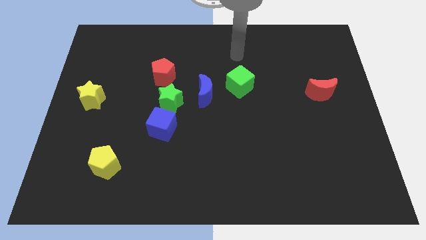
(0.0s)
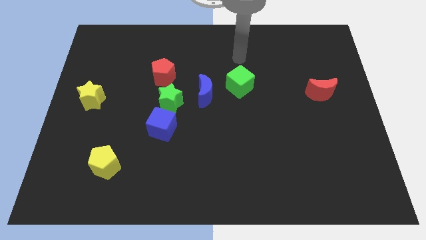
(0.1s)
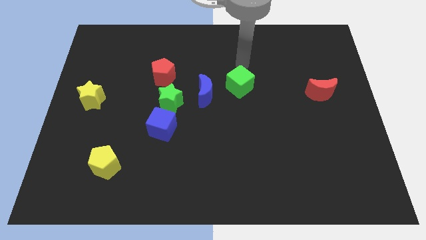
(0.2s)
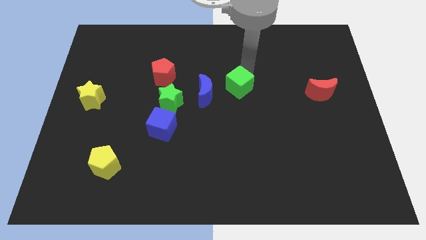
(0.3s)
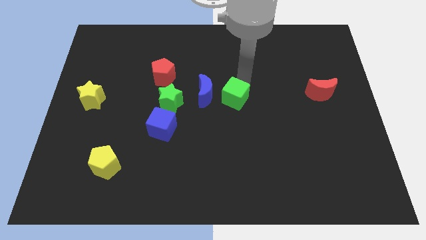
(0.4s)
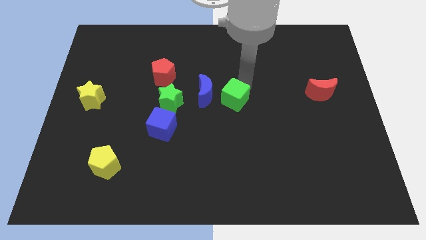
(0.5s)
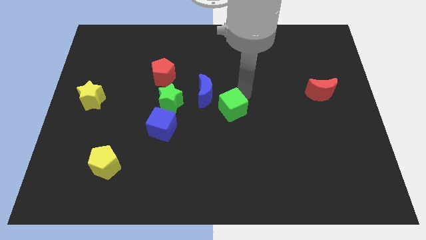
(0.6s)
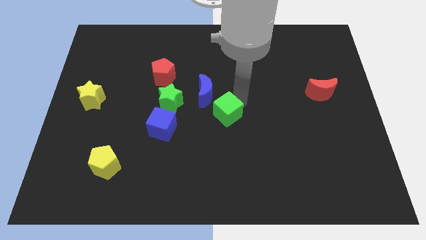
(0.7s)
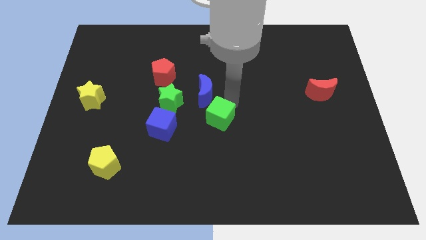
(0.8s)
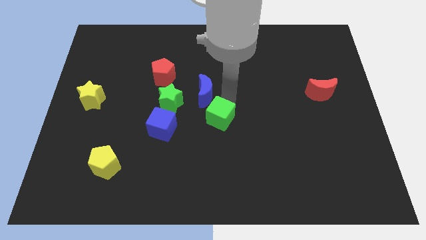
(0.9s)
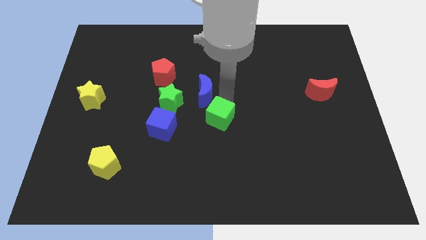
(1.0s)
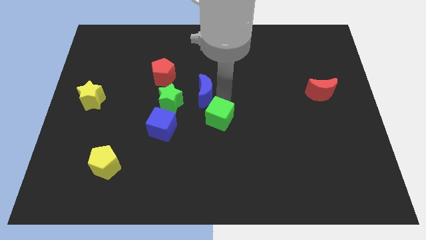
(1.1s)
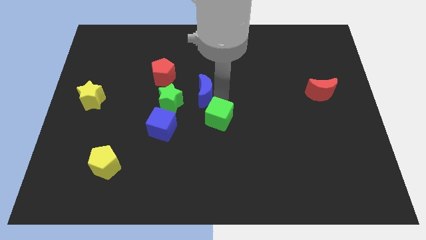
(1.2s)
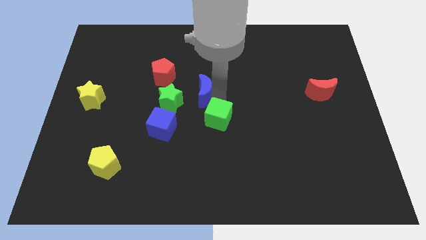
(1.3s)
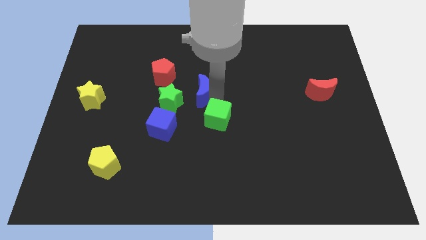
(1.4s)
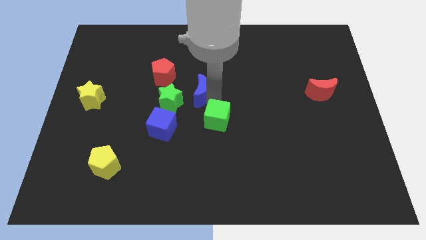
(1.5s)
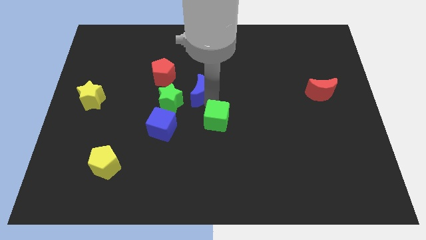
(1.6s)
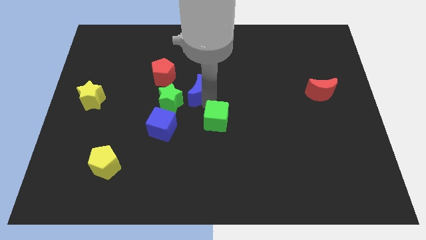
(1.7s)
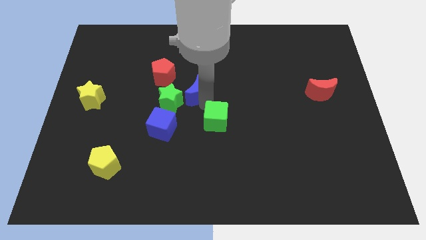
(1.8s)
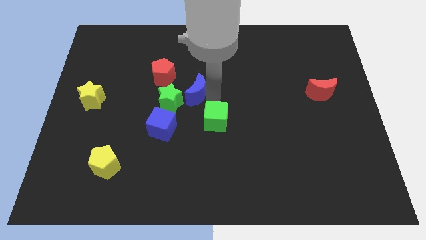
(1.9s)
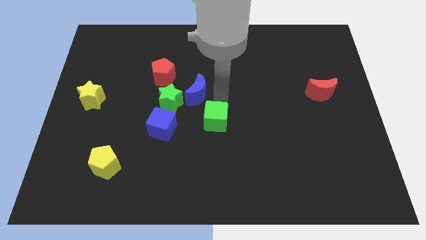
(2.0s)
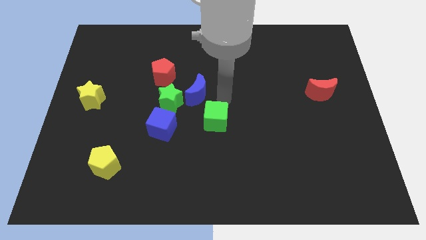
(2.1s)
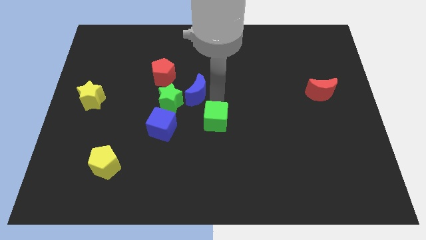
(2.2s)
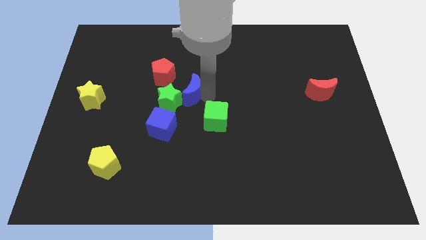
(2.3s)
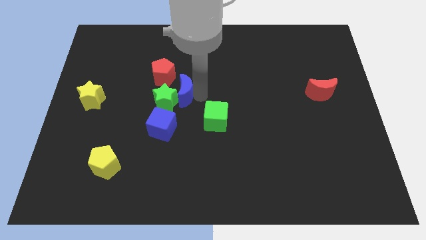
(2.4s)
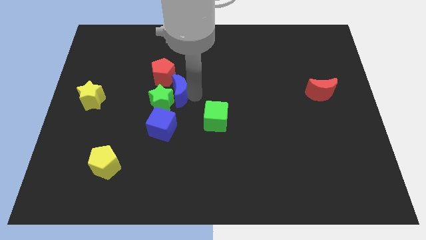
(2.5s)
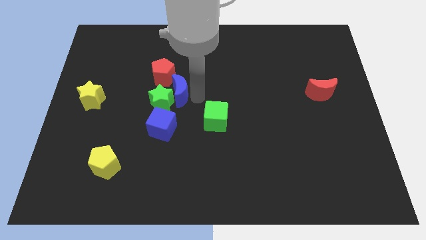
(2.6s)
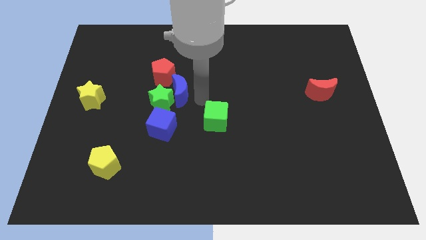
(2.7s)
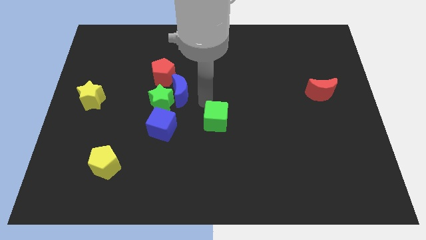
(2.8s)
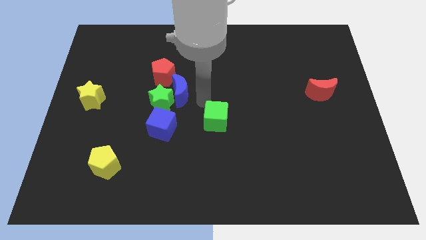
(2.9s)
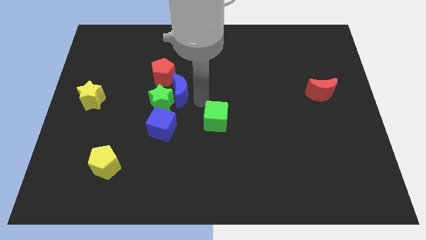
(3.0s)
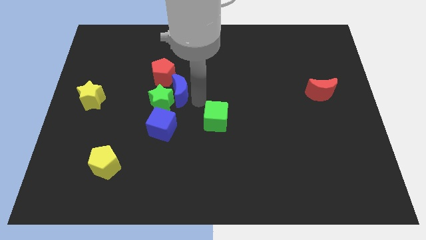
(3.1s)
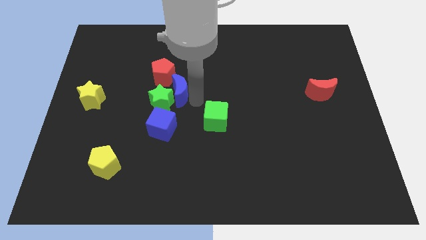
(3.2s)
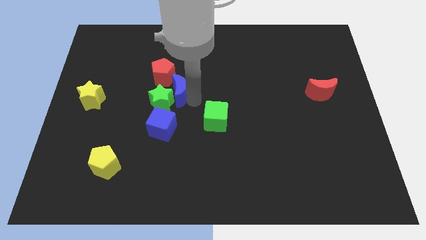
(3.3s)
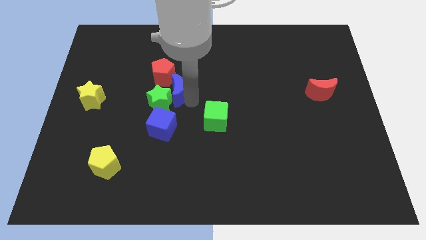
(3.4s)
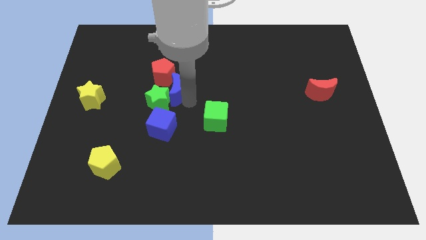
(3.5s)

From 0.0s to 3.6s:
slightly move the blue moon left

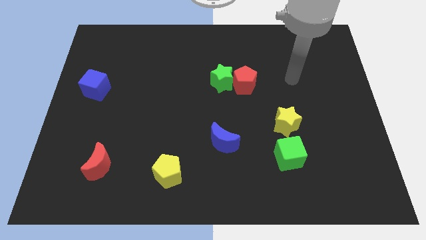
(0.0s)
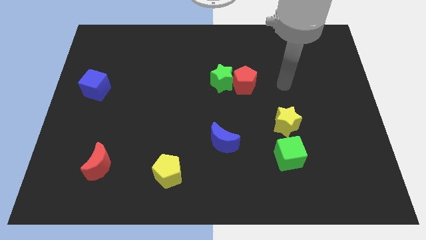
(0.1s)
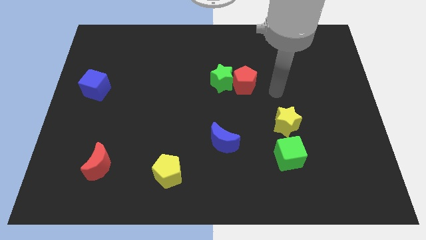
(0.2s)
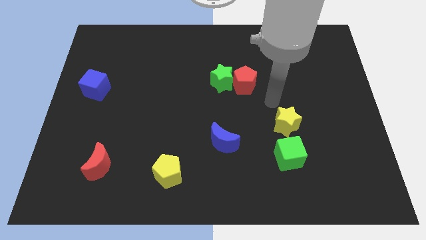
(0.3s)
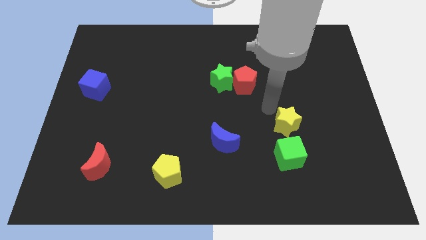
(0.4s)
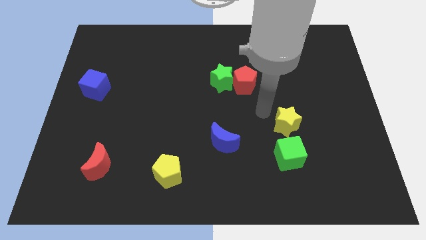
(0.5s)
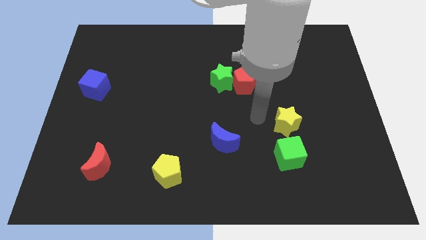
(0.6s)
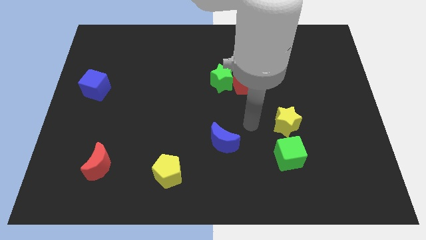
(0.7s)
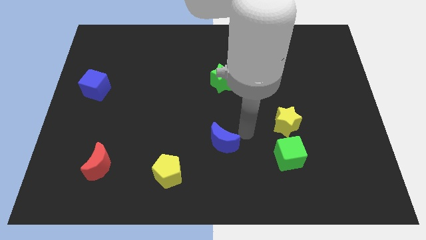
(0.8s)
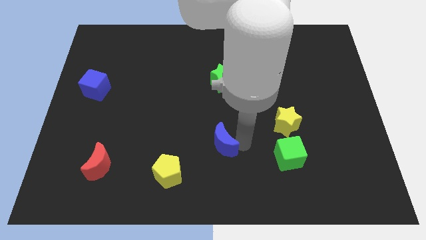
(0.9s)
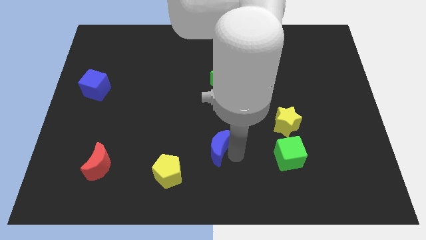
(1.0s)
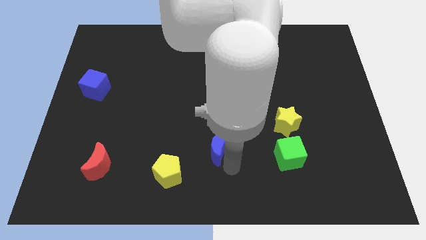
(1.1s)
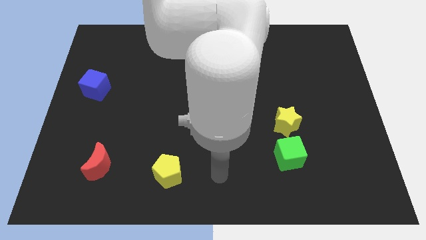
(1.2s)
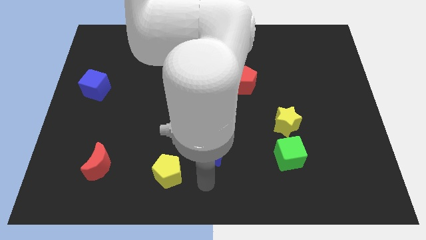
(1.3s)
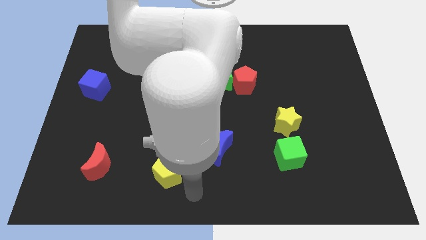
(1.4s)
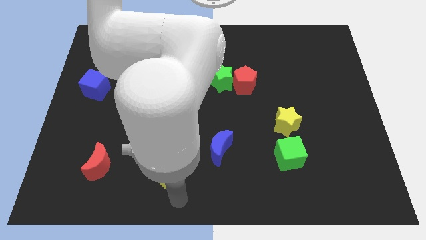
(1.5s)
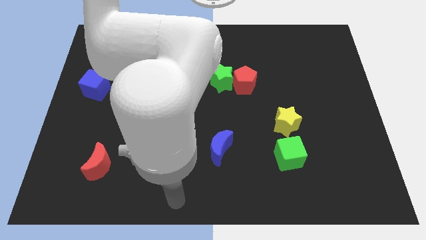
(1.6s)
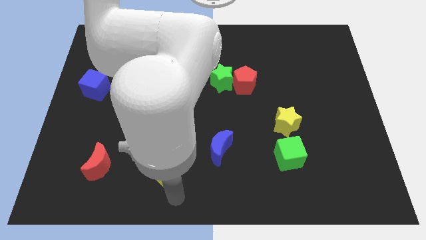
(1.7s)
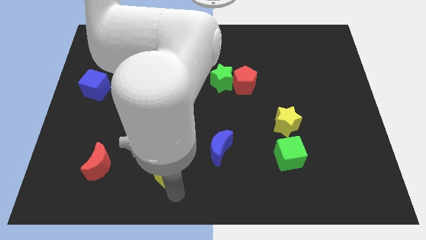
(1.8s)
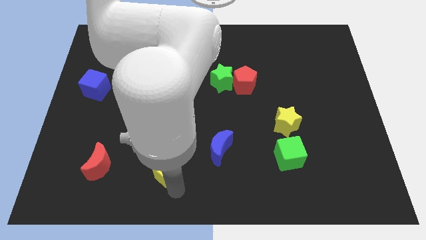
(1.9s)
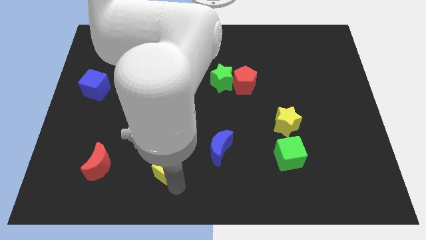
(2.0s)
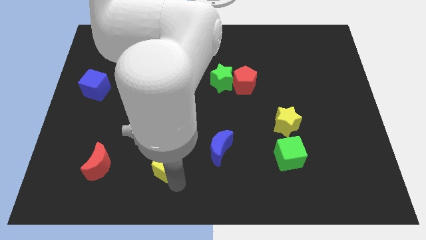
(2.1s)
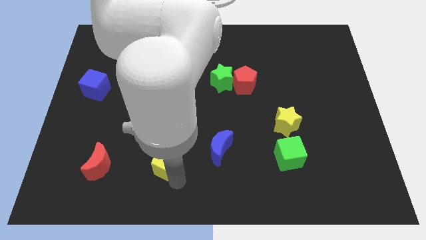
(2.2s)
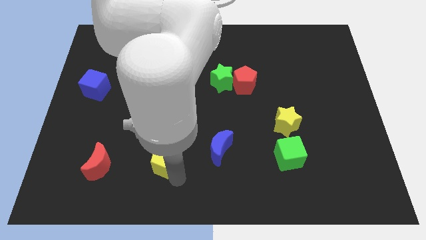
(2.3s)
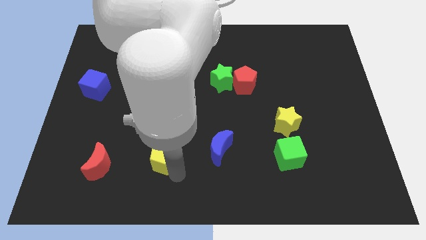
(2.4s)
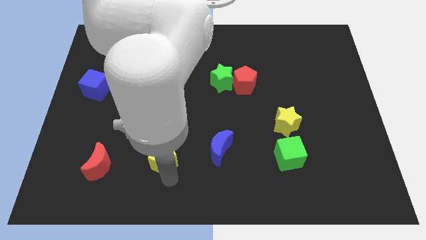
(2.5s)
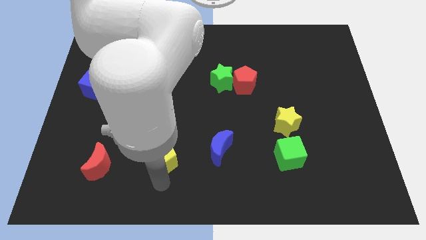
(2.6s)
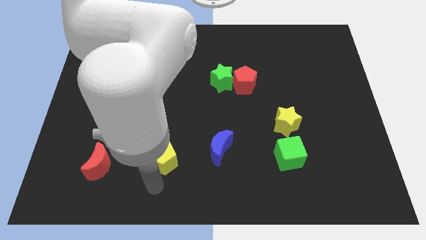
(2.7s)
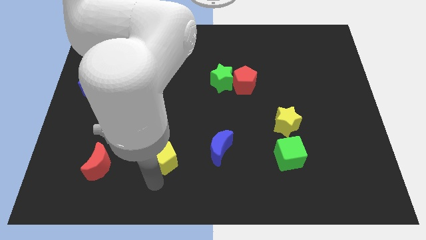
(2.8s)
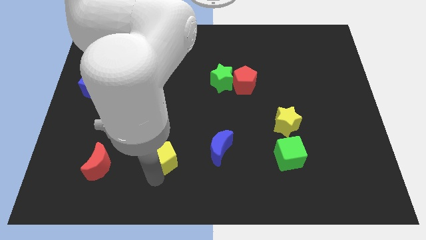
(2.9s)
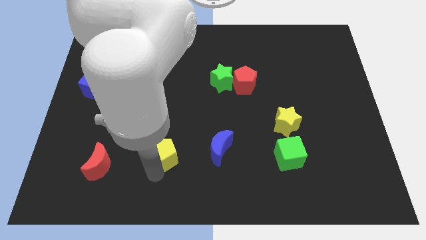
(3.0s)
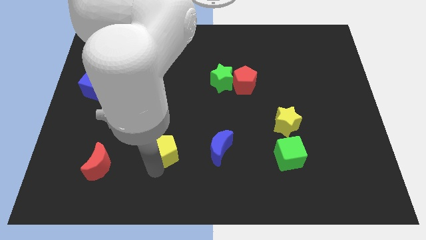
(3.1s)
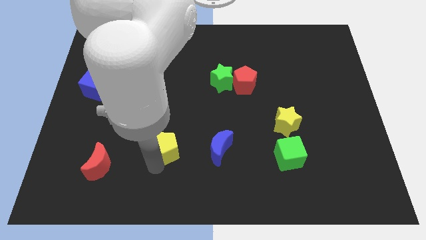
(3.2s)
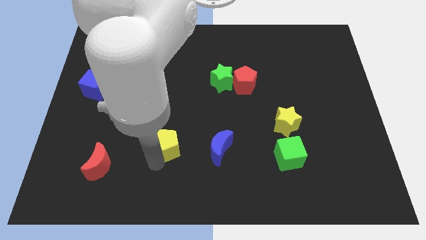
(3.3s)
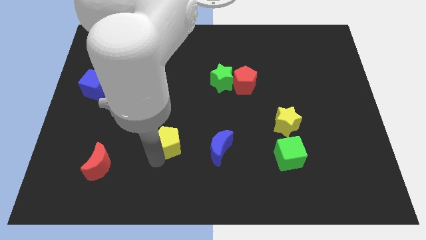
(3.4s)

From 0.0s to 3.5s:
push the yellow pentagon somewhat up

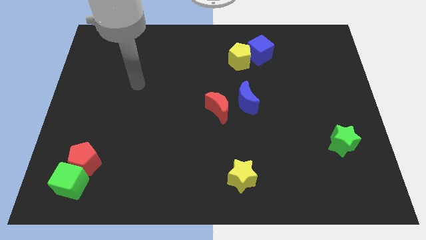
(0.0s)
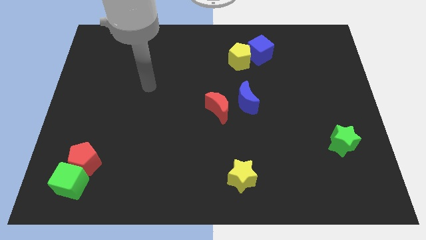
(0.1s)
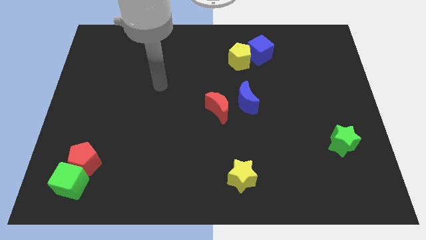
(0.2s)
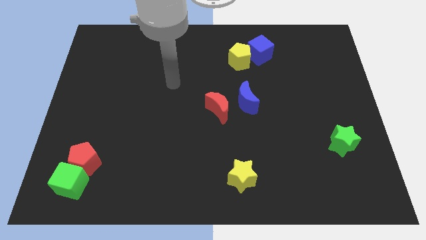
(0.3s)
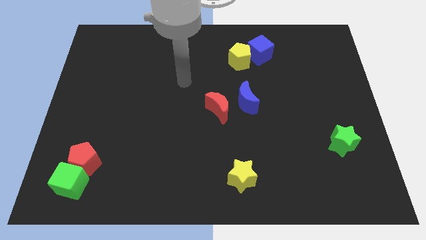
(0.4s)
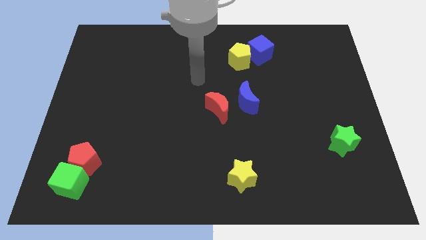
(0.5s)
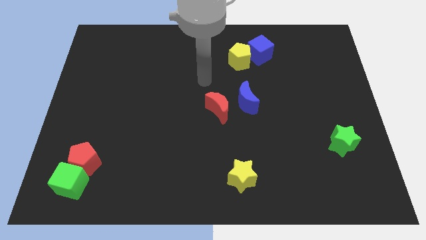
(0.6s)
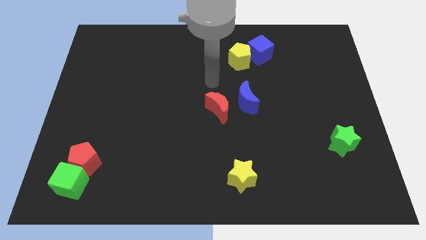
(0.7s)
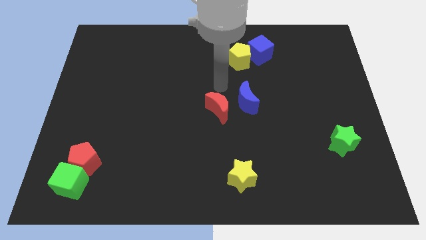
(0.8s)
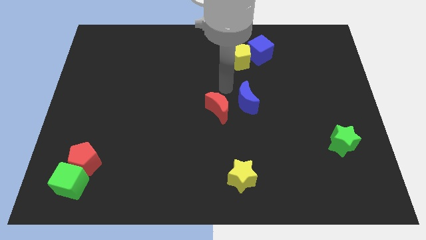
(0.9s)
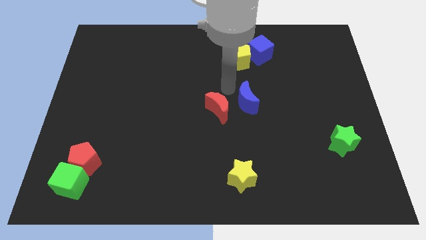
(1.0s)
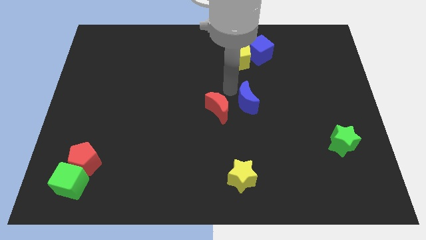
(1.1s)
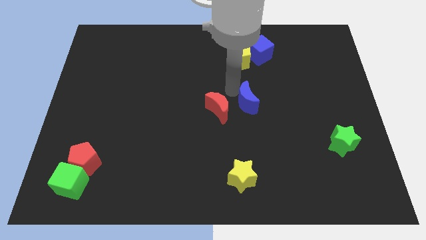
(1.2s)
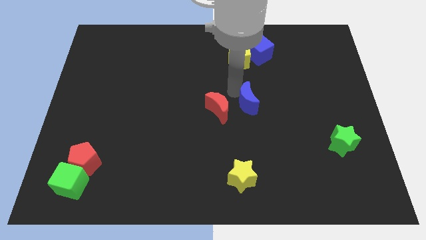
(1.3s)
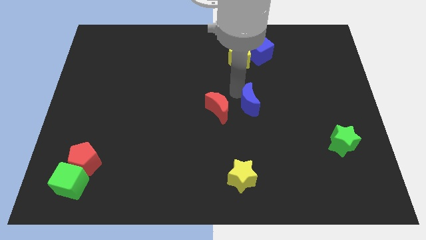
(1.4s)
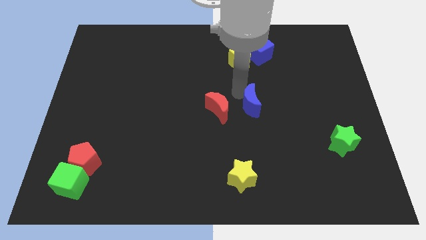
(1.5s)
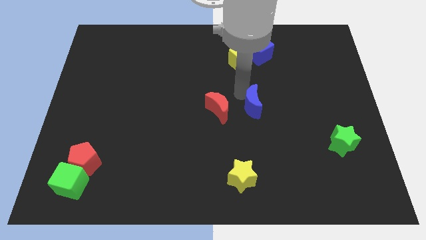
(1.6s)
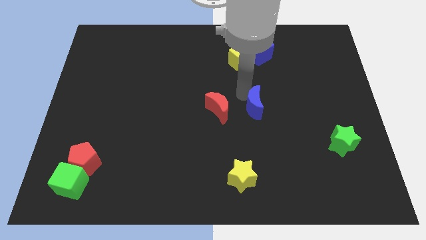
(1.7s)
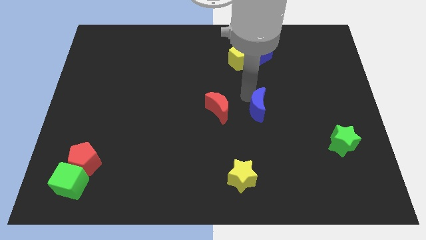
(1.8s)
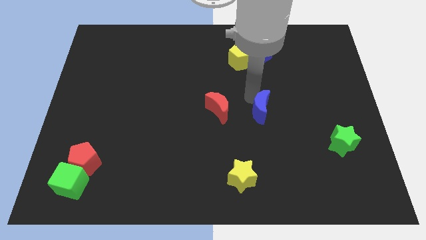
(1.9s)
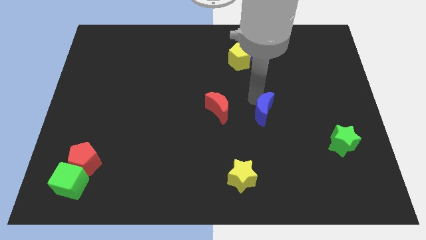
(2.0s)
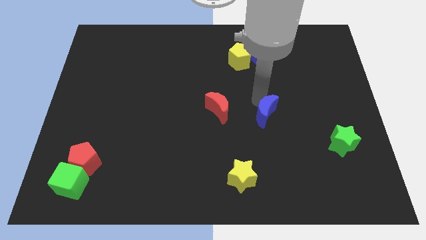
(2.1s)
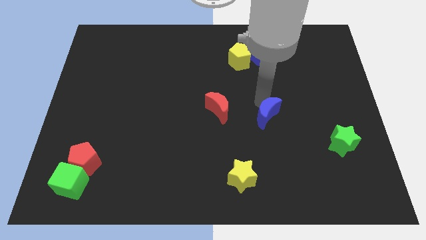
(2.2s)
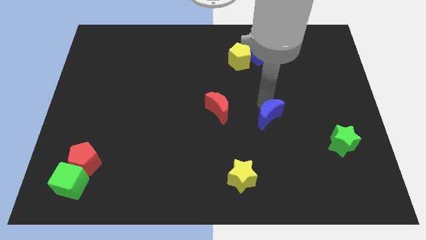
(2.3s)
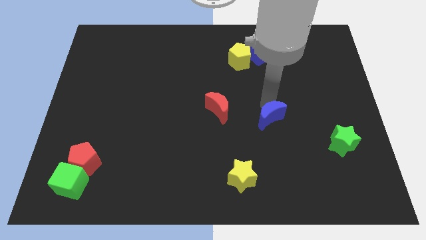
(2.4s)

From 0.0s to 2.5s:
move the blue moon slightly down and then right
